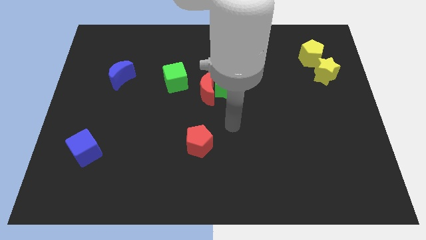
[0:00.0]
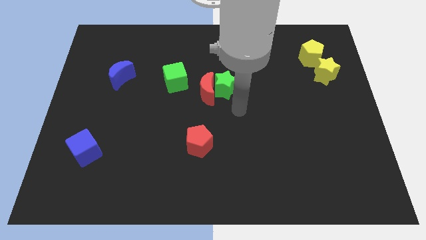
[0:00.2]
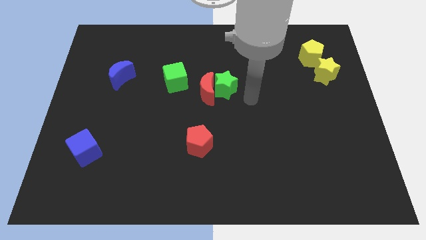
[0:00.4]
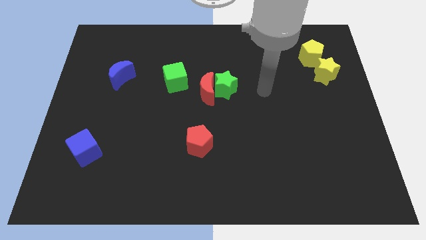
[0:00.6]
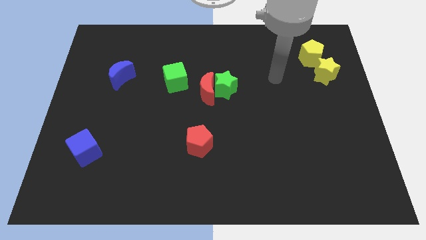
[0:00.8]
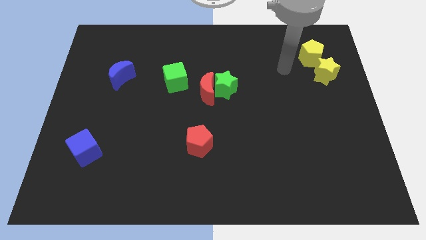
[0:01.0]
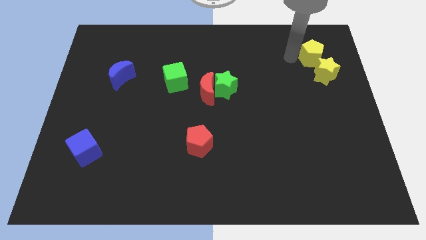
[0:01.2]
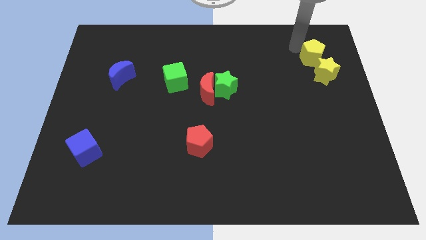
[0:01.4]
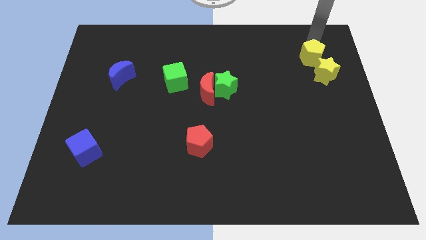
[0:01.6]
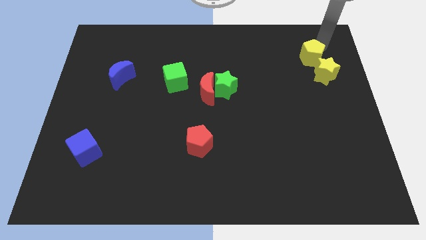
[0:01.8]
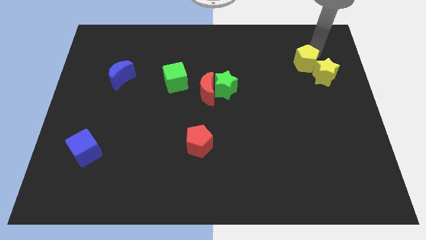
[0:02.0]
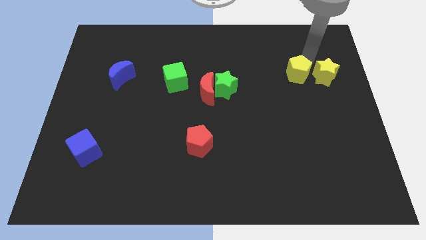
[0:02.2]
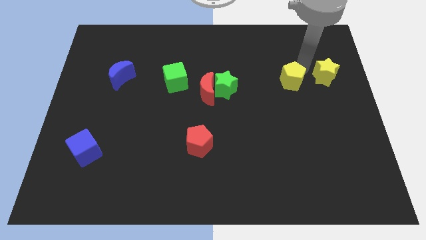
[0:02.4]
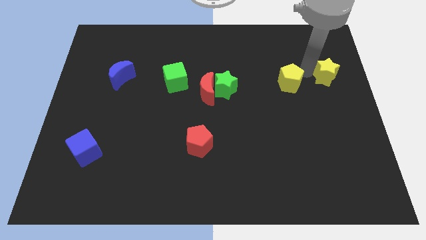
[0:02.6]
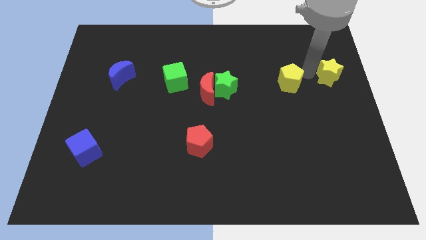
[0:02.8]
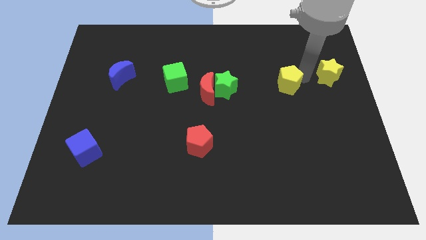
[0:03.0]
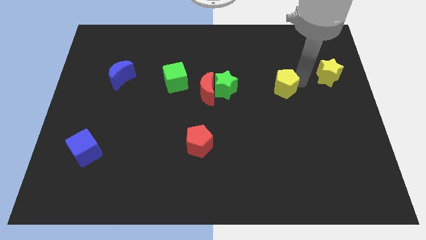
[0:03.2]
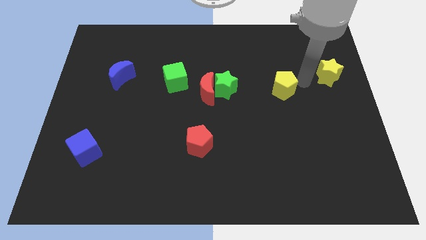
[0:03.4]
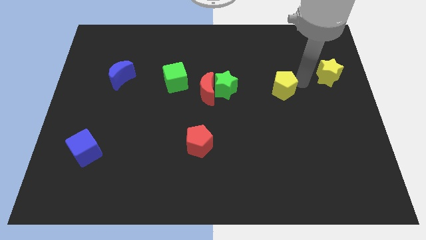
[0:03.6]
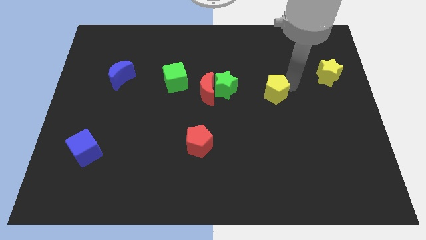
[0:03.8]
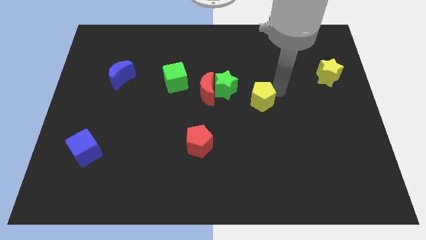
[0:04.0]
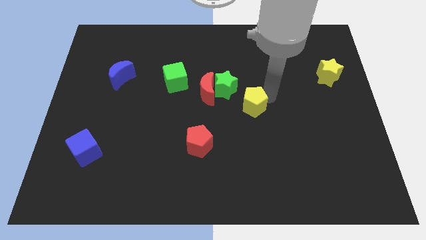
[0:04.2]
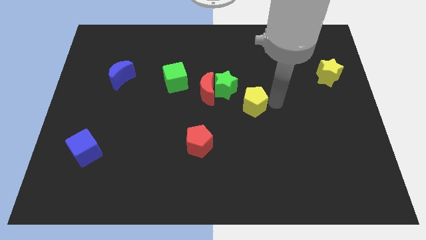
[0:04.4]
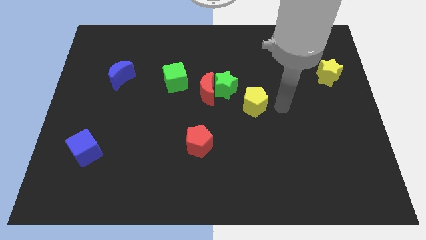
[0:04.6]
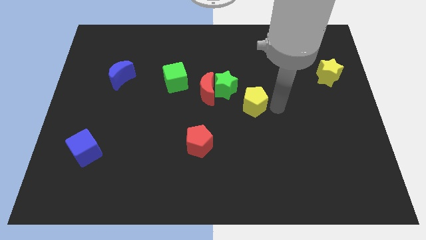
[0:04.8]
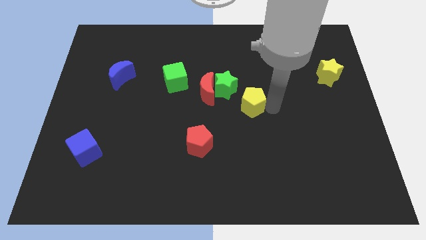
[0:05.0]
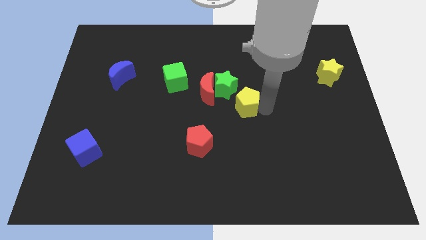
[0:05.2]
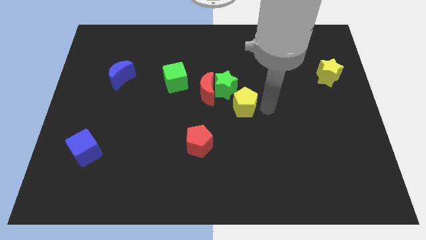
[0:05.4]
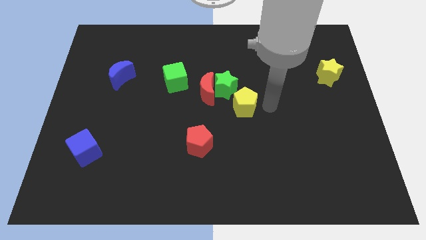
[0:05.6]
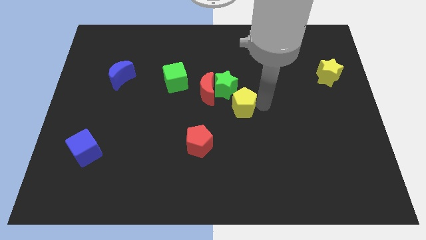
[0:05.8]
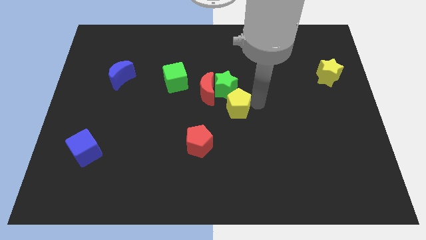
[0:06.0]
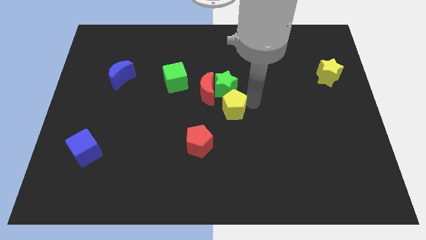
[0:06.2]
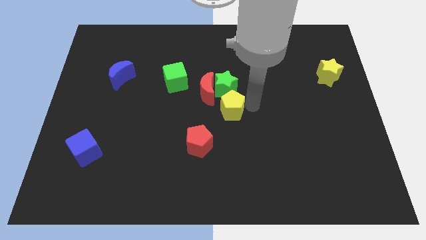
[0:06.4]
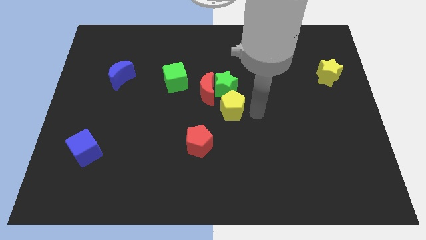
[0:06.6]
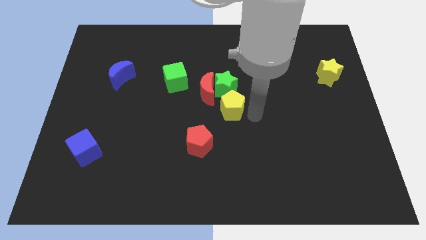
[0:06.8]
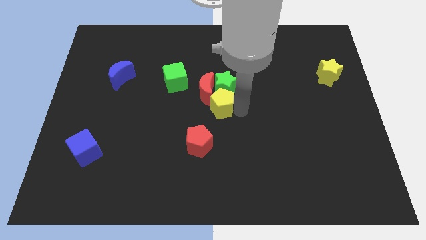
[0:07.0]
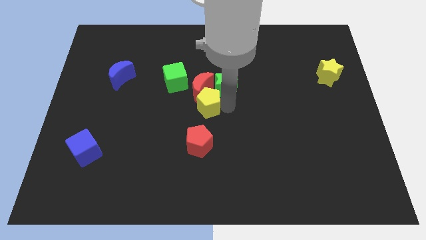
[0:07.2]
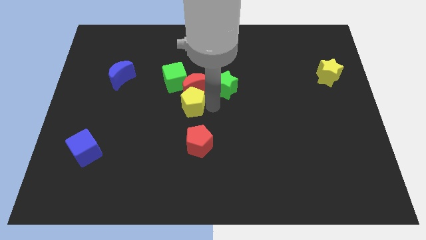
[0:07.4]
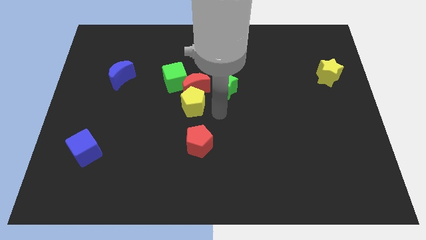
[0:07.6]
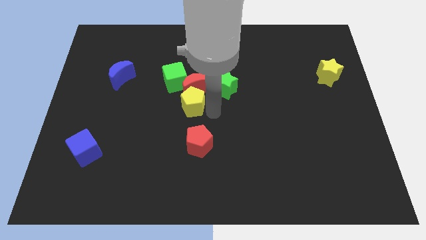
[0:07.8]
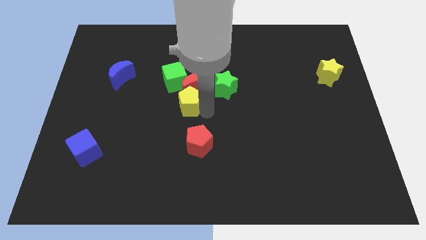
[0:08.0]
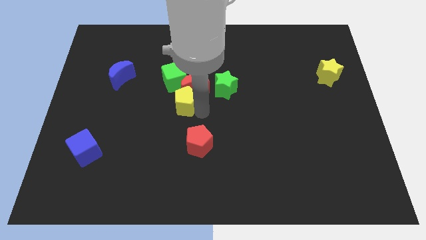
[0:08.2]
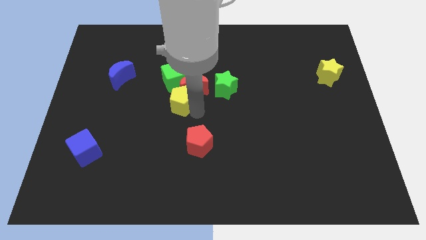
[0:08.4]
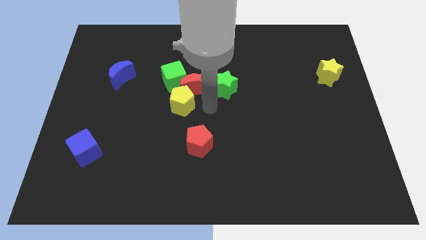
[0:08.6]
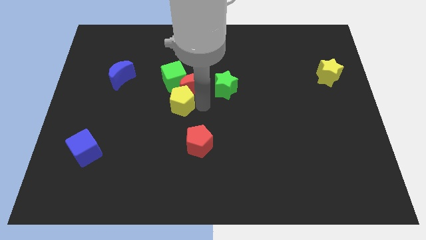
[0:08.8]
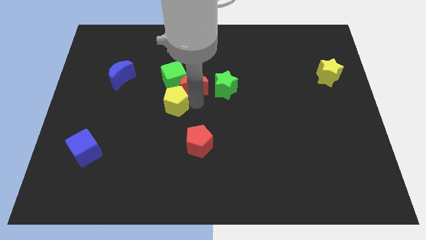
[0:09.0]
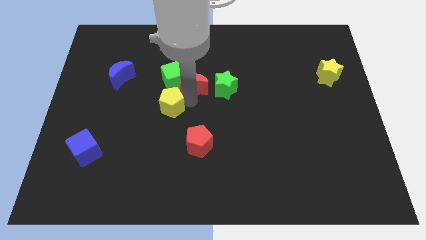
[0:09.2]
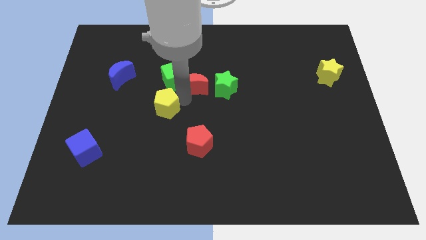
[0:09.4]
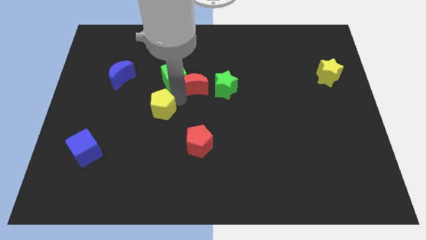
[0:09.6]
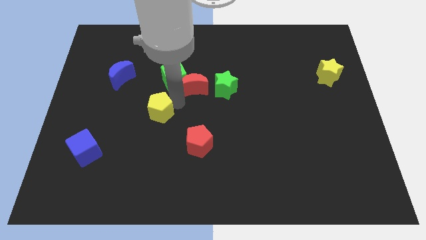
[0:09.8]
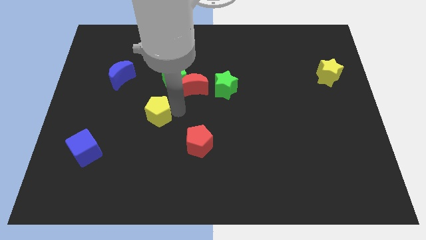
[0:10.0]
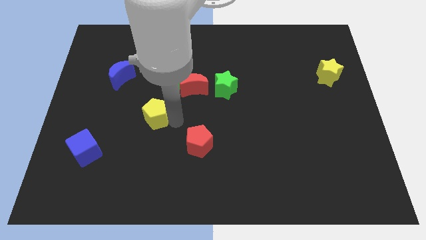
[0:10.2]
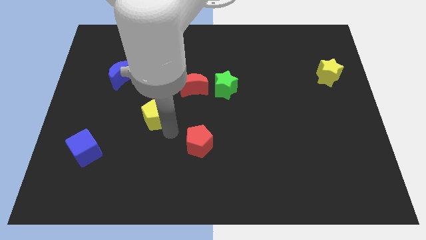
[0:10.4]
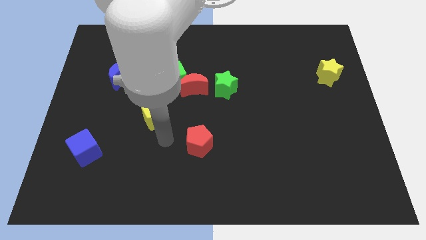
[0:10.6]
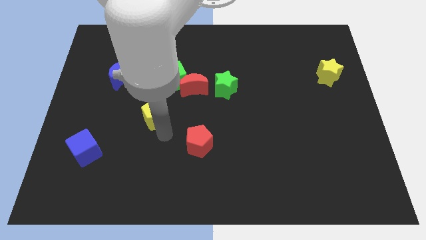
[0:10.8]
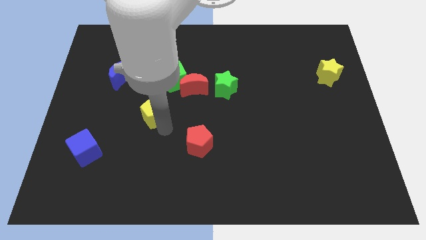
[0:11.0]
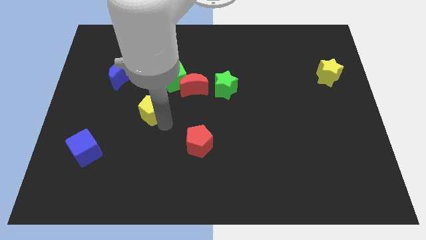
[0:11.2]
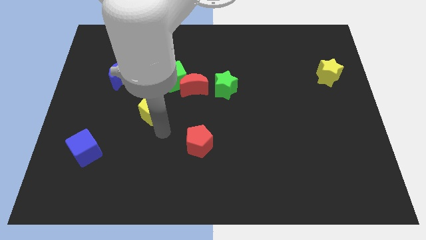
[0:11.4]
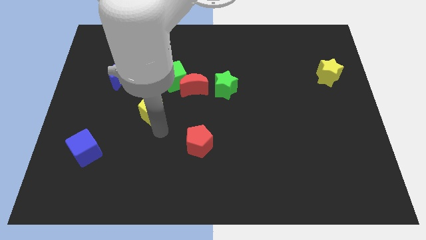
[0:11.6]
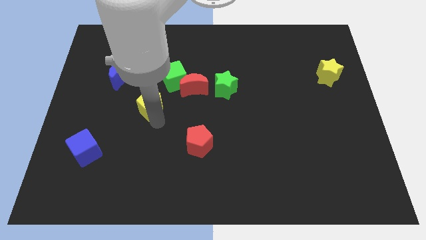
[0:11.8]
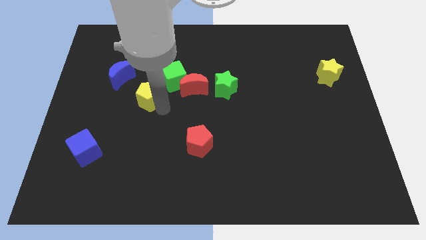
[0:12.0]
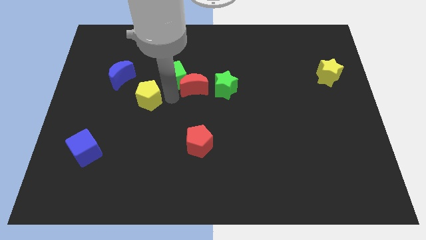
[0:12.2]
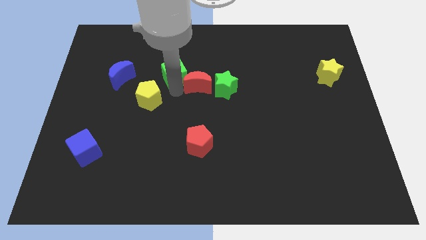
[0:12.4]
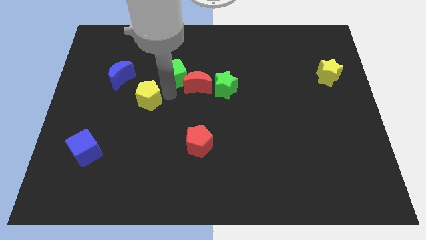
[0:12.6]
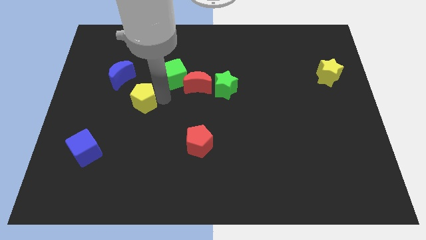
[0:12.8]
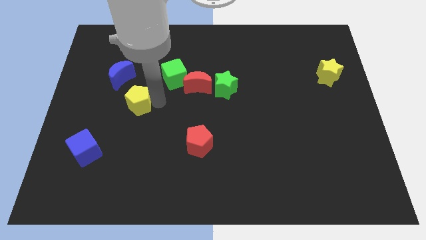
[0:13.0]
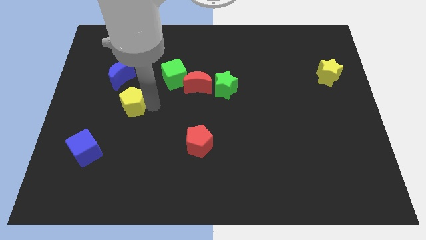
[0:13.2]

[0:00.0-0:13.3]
put the yellow pentagon below the blue moon
